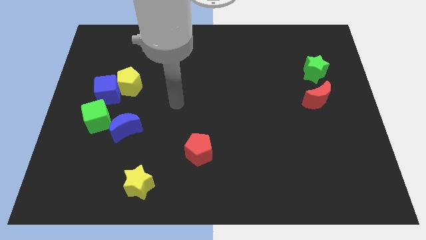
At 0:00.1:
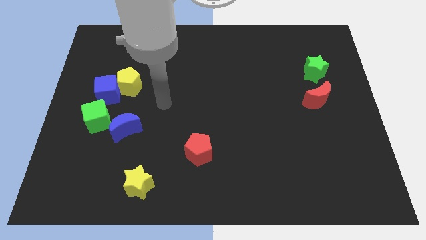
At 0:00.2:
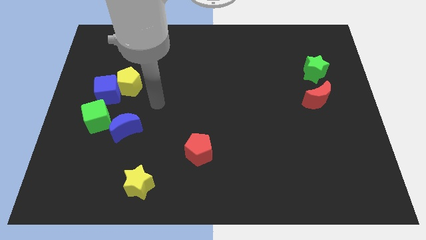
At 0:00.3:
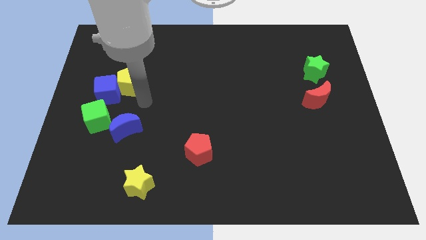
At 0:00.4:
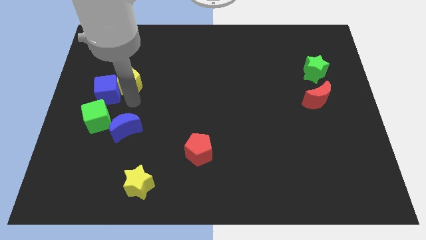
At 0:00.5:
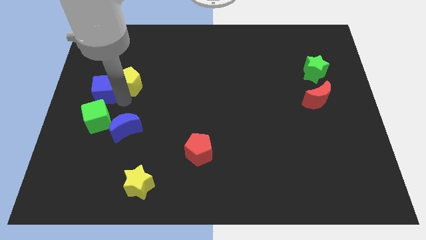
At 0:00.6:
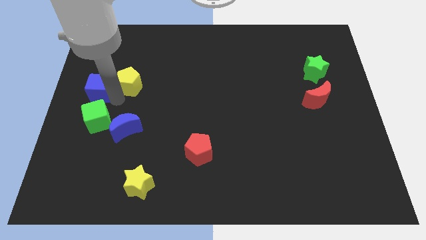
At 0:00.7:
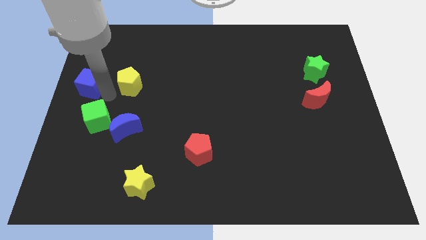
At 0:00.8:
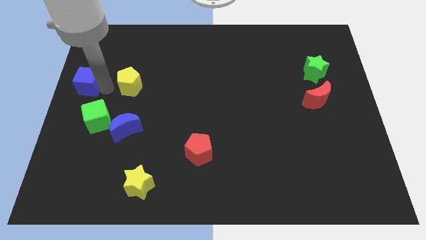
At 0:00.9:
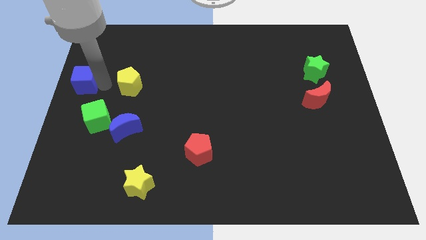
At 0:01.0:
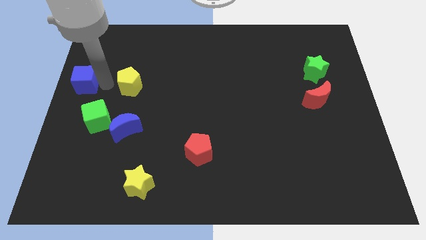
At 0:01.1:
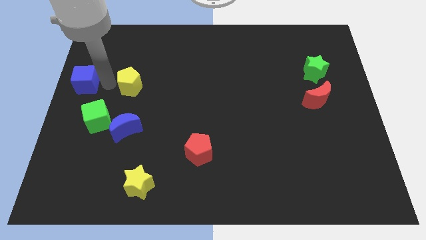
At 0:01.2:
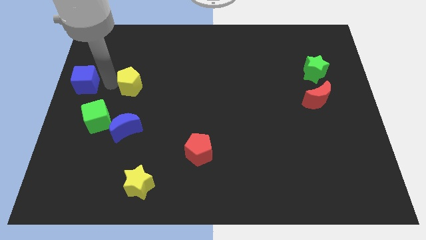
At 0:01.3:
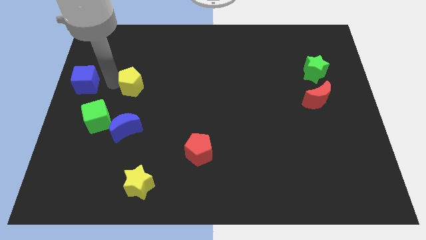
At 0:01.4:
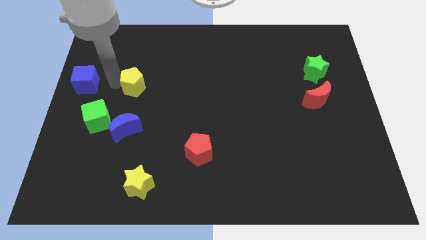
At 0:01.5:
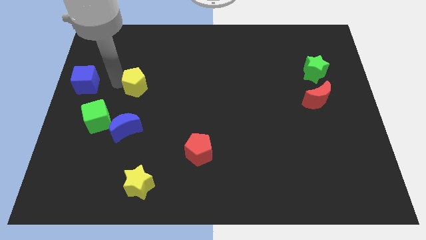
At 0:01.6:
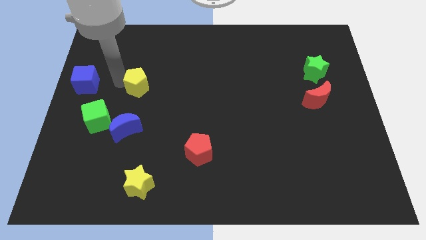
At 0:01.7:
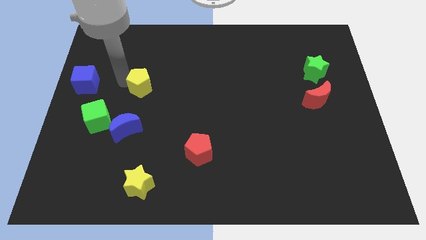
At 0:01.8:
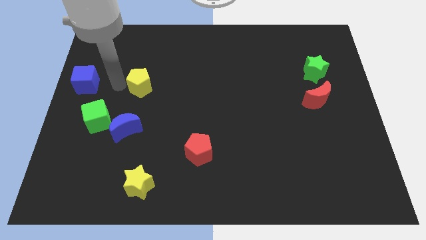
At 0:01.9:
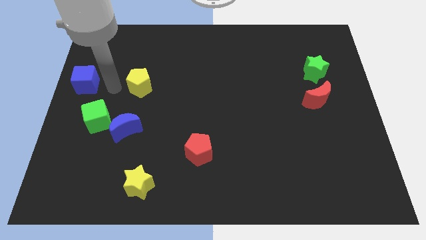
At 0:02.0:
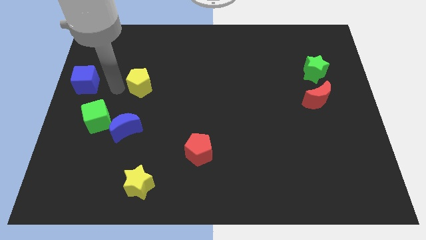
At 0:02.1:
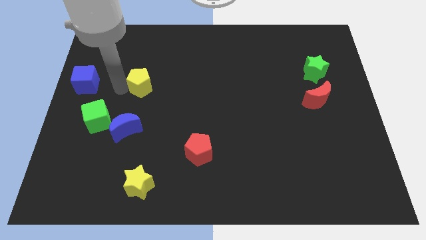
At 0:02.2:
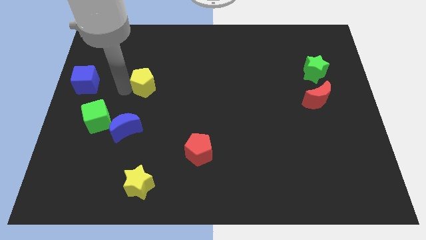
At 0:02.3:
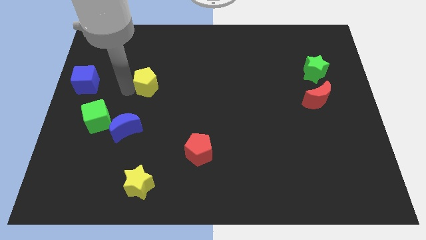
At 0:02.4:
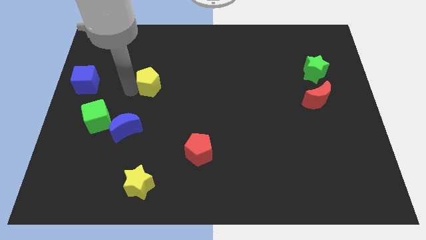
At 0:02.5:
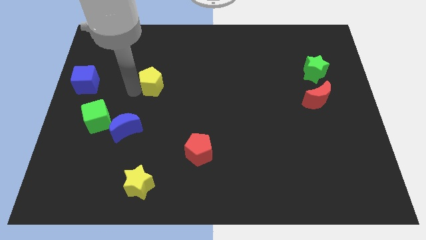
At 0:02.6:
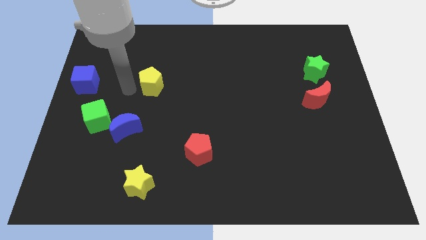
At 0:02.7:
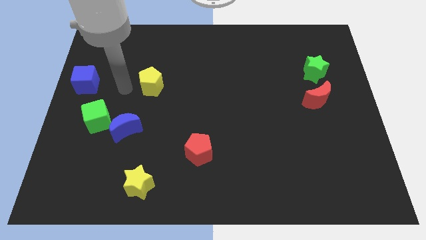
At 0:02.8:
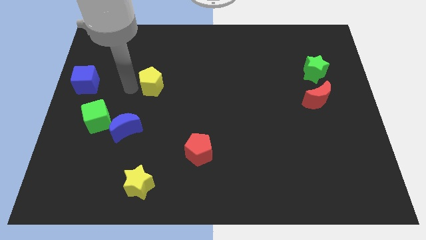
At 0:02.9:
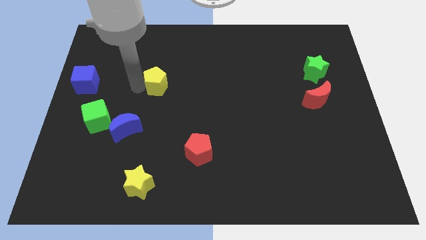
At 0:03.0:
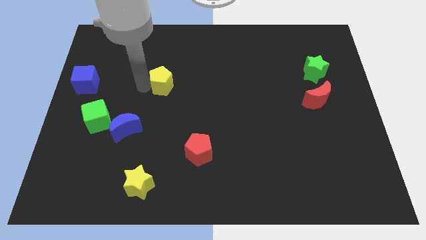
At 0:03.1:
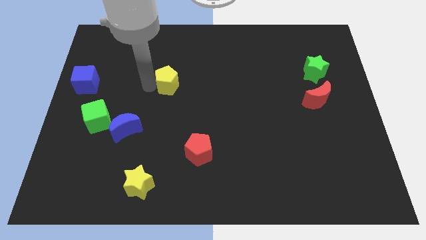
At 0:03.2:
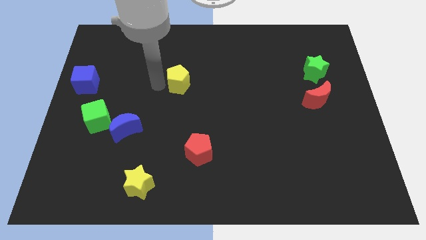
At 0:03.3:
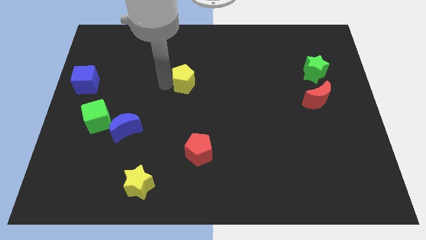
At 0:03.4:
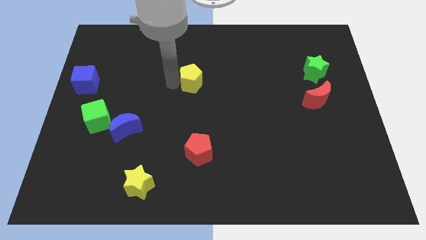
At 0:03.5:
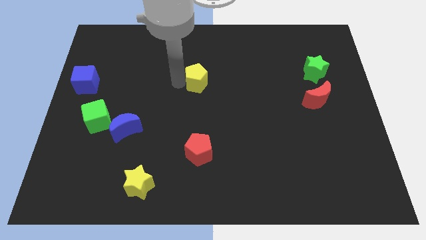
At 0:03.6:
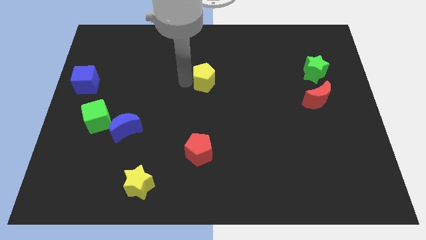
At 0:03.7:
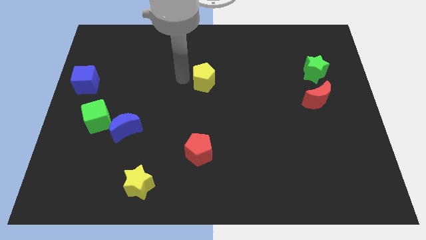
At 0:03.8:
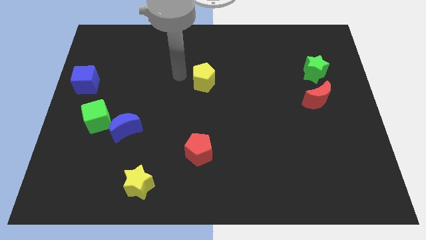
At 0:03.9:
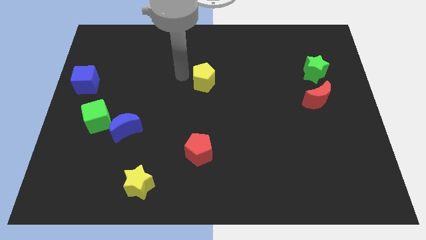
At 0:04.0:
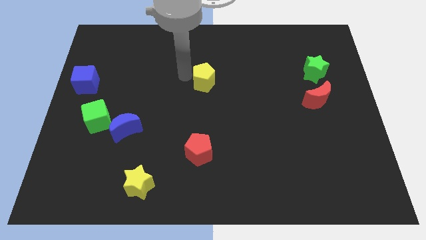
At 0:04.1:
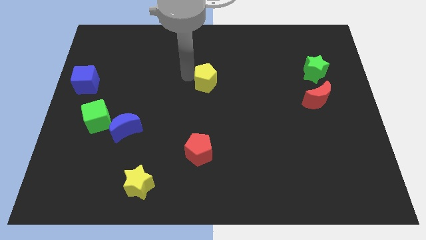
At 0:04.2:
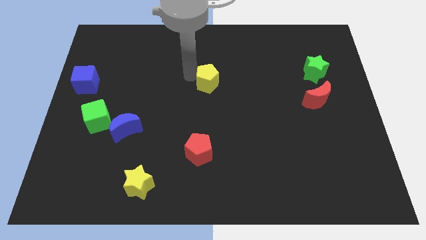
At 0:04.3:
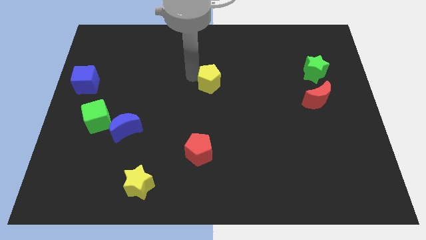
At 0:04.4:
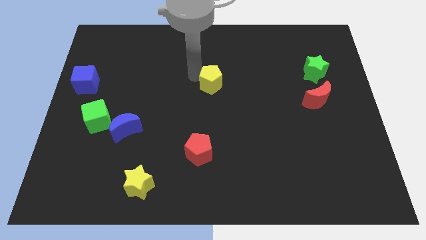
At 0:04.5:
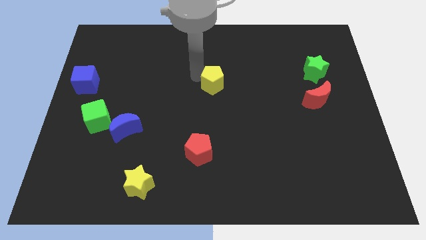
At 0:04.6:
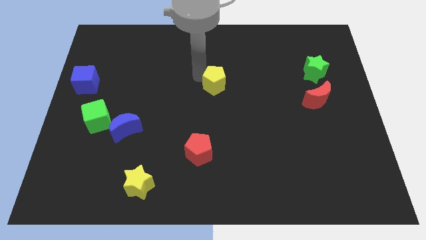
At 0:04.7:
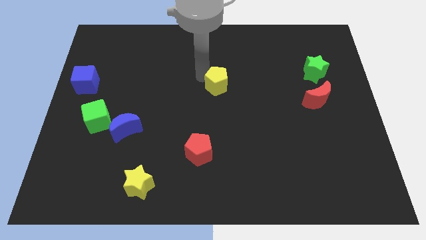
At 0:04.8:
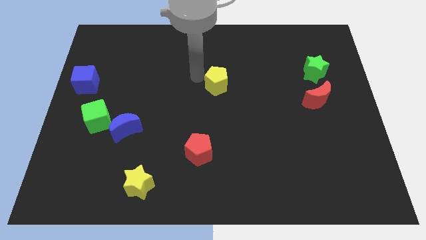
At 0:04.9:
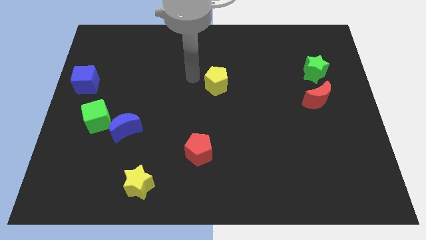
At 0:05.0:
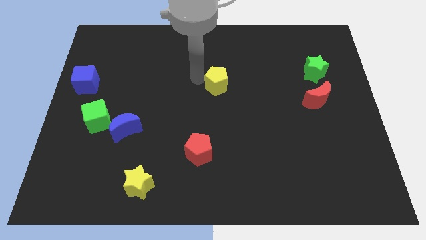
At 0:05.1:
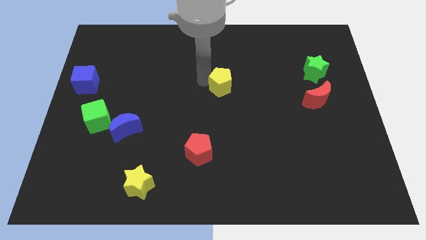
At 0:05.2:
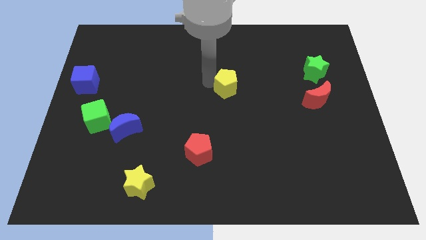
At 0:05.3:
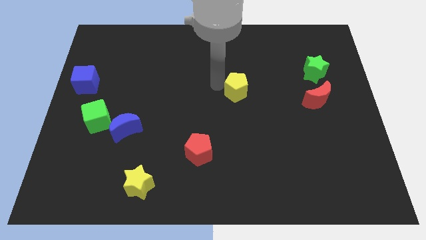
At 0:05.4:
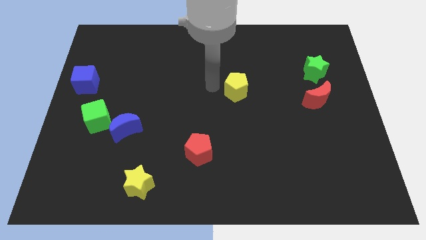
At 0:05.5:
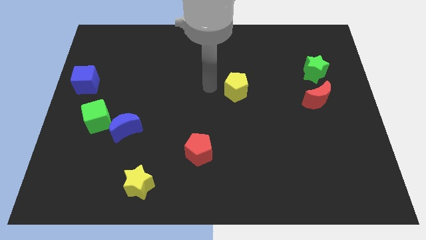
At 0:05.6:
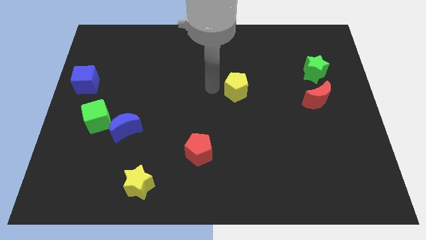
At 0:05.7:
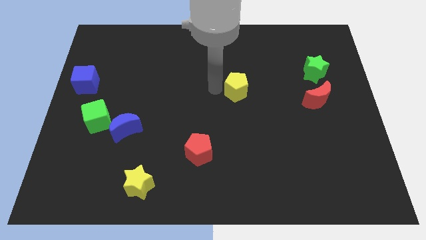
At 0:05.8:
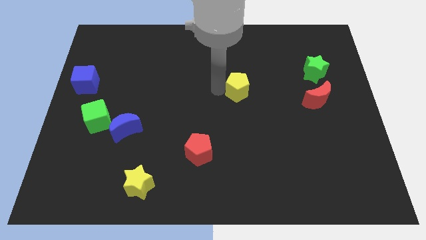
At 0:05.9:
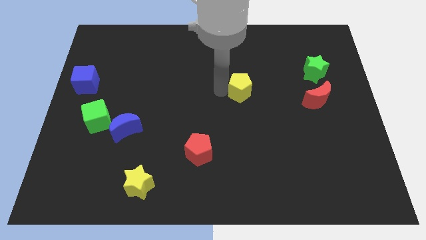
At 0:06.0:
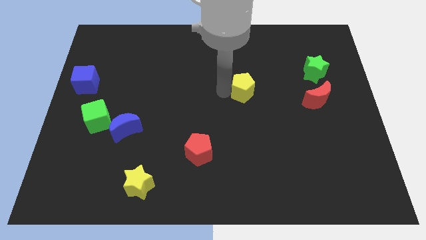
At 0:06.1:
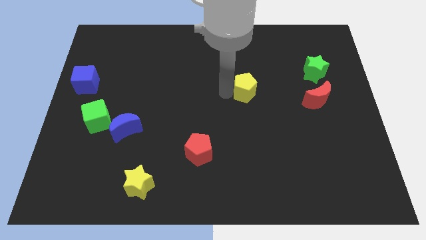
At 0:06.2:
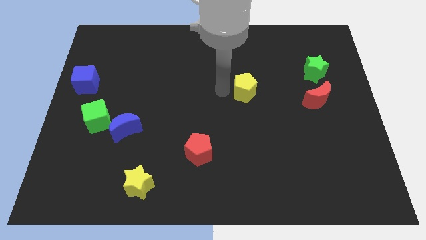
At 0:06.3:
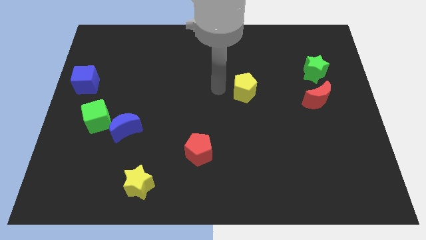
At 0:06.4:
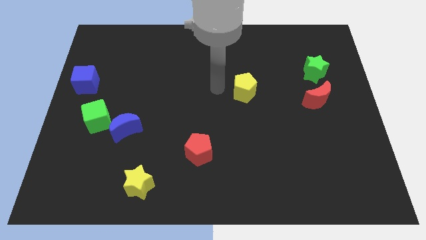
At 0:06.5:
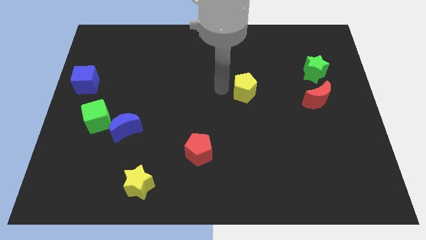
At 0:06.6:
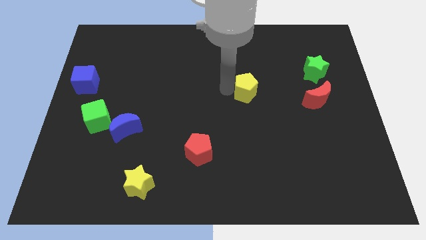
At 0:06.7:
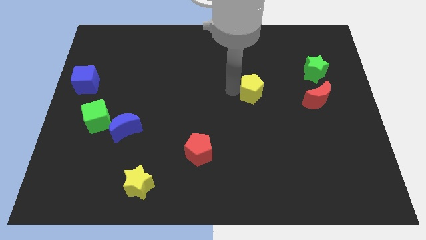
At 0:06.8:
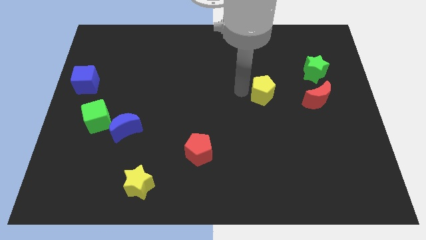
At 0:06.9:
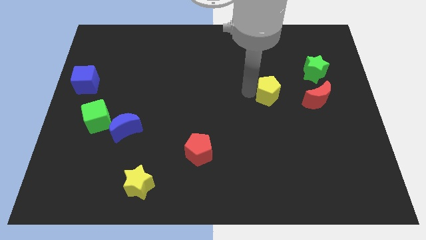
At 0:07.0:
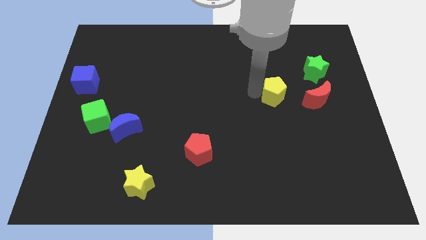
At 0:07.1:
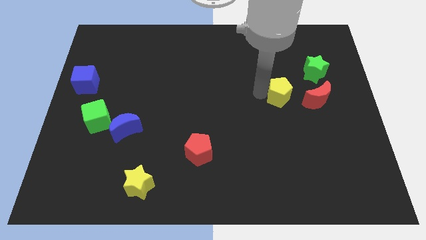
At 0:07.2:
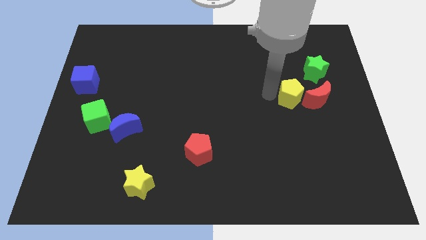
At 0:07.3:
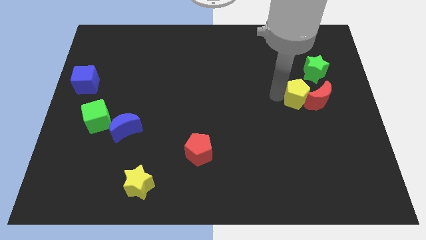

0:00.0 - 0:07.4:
push the yellow pentagon close to the red moon

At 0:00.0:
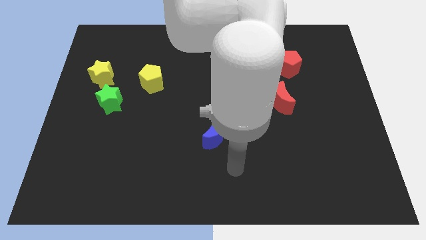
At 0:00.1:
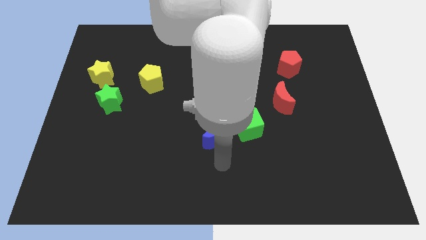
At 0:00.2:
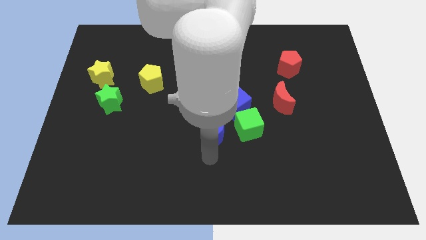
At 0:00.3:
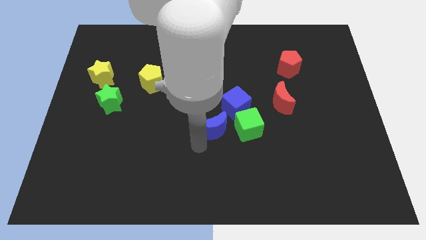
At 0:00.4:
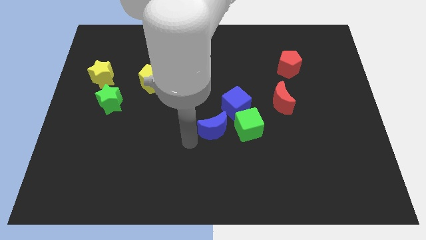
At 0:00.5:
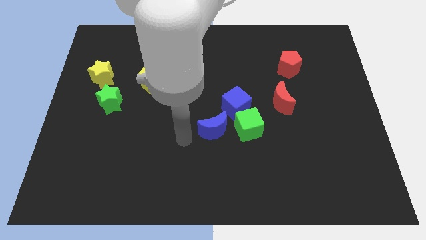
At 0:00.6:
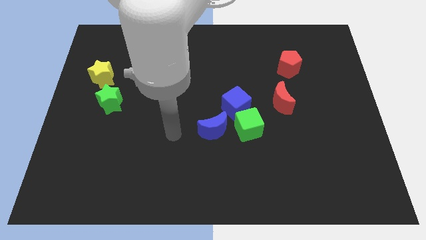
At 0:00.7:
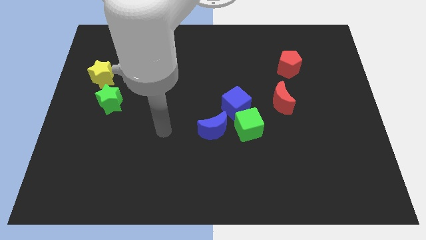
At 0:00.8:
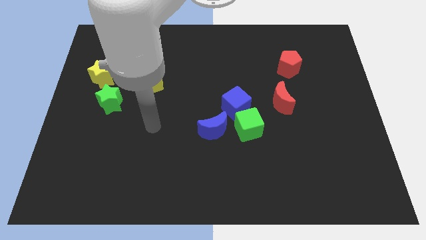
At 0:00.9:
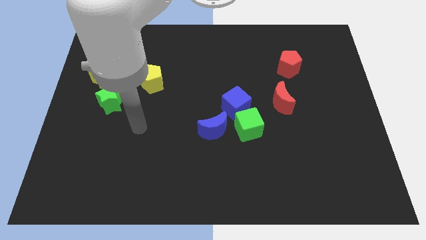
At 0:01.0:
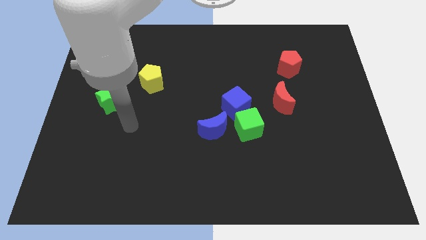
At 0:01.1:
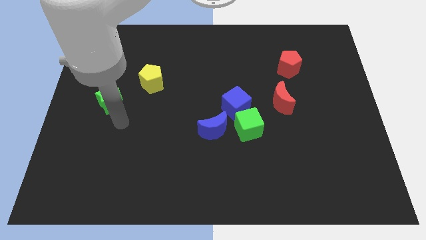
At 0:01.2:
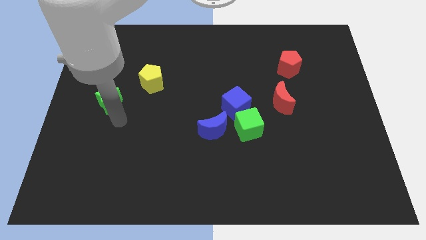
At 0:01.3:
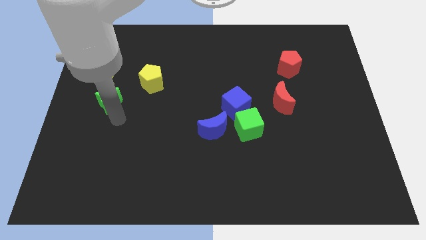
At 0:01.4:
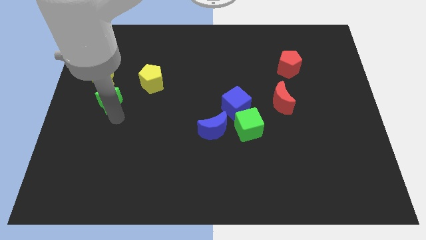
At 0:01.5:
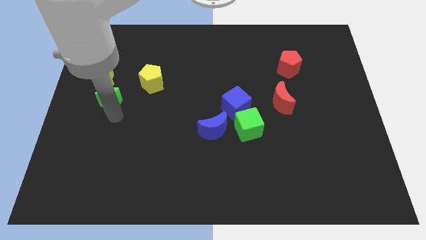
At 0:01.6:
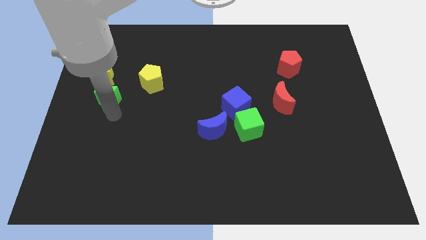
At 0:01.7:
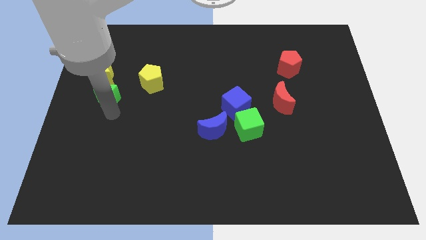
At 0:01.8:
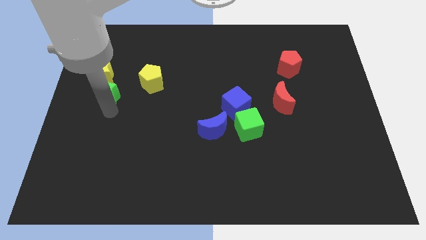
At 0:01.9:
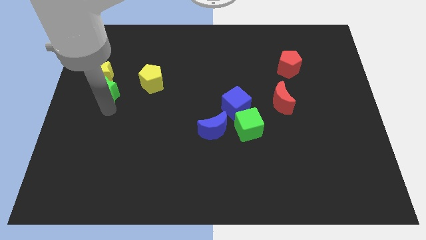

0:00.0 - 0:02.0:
move the green star towards the yellow star
